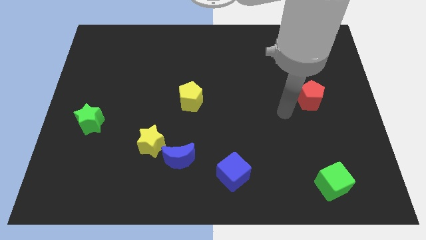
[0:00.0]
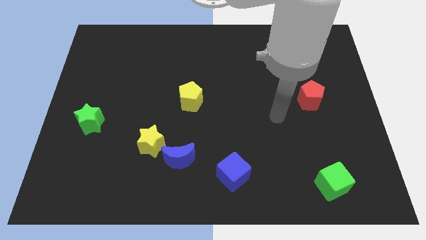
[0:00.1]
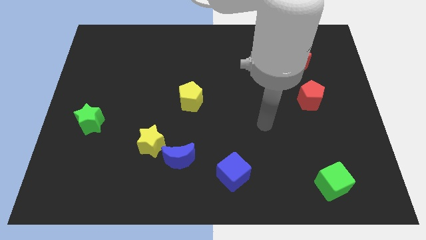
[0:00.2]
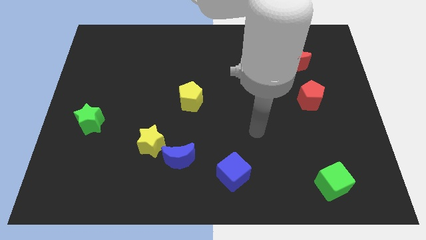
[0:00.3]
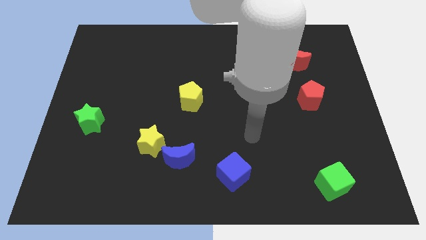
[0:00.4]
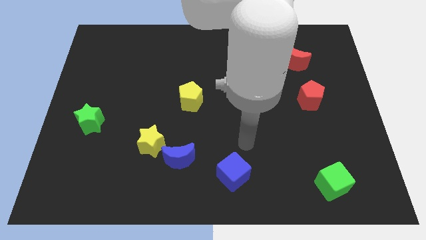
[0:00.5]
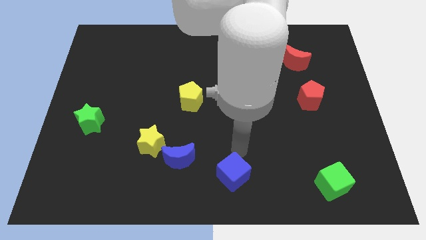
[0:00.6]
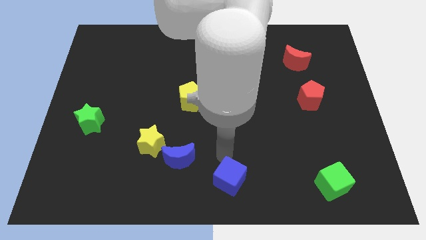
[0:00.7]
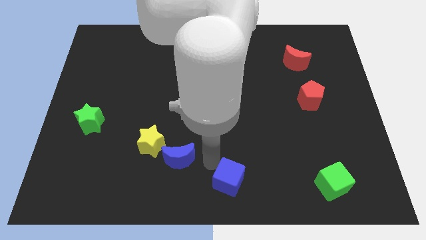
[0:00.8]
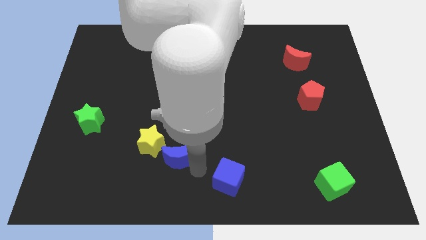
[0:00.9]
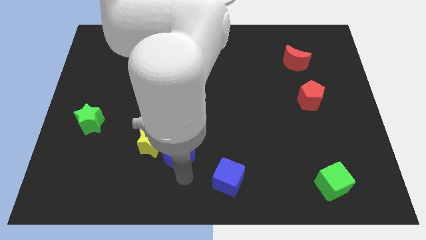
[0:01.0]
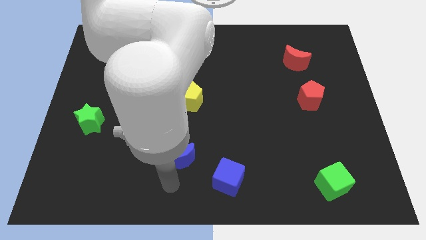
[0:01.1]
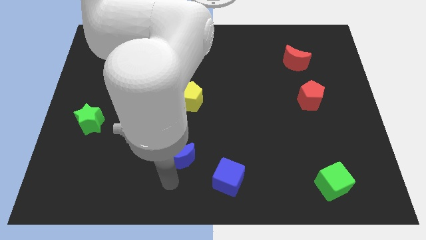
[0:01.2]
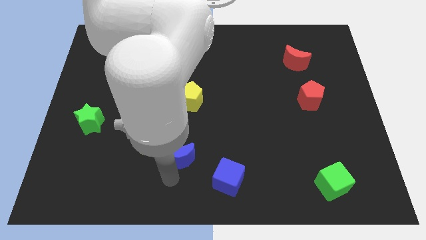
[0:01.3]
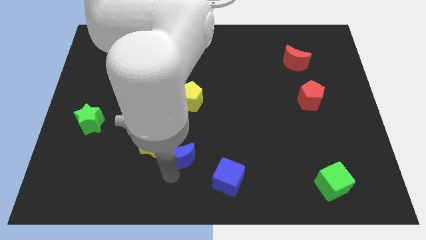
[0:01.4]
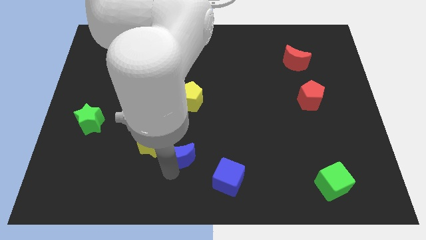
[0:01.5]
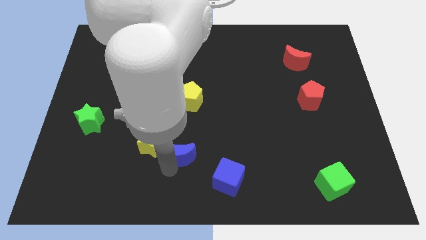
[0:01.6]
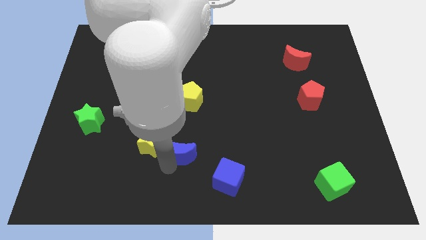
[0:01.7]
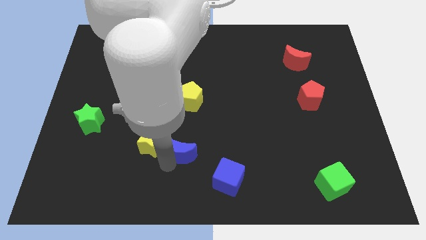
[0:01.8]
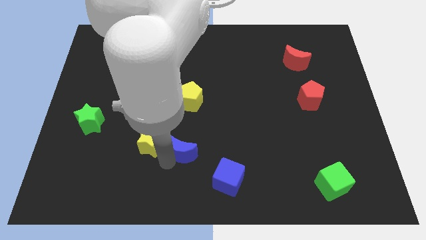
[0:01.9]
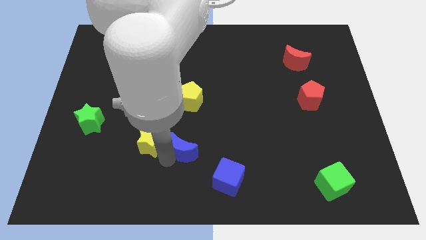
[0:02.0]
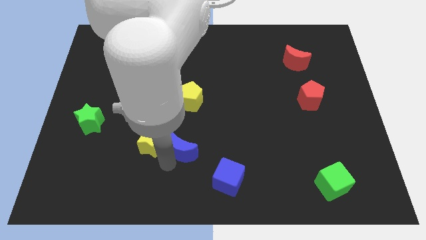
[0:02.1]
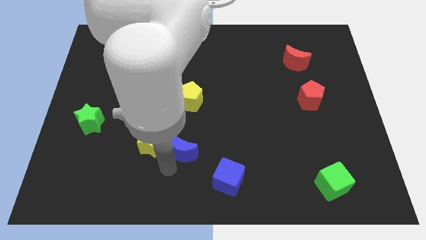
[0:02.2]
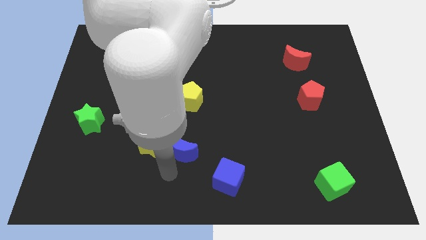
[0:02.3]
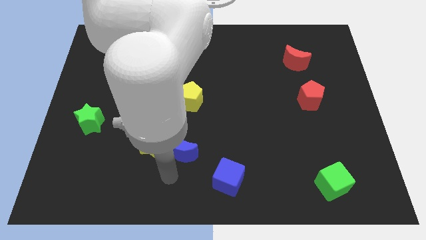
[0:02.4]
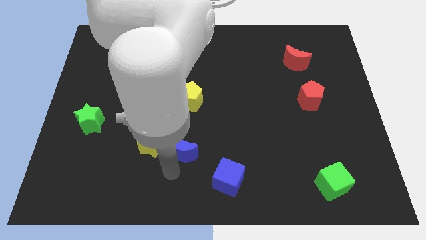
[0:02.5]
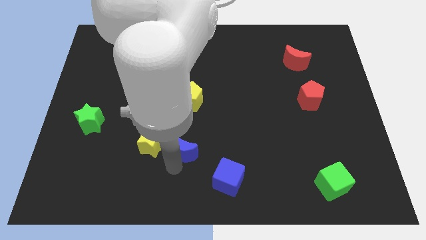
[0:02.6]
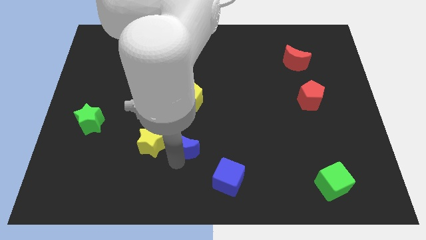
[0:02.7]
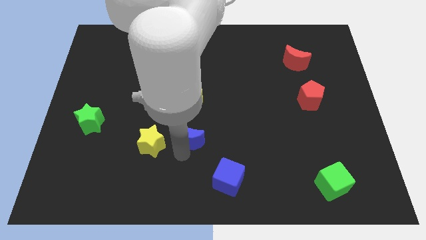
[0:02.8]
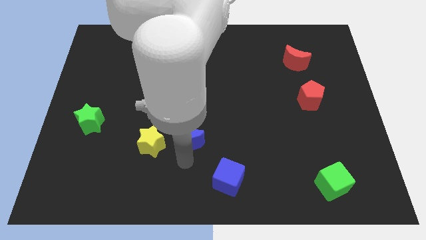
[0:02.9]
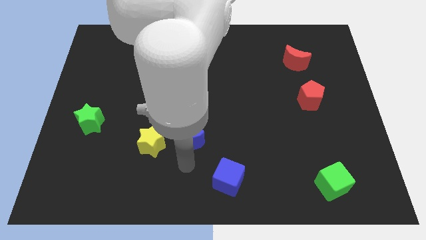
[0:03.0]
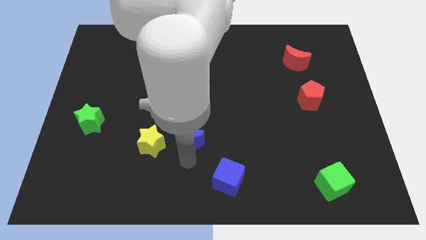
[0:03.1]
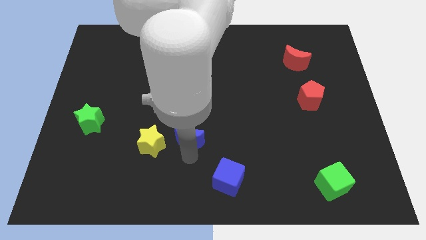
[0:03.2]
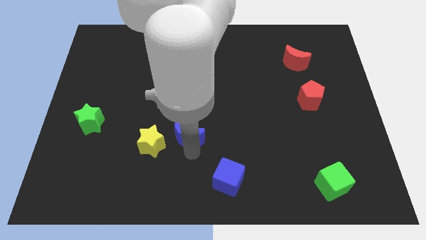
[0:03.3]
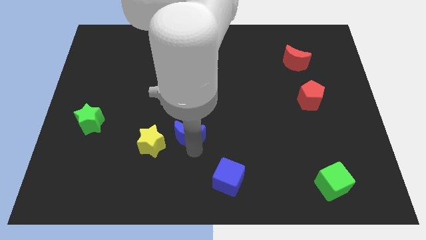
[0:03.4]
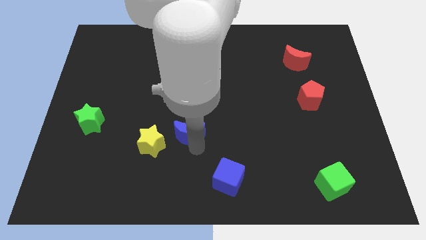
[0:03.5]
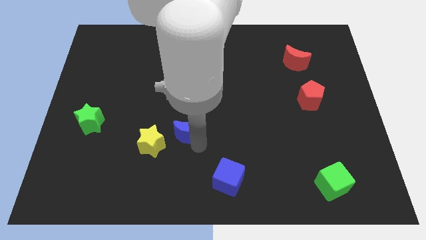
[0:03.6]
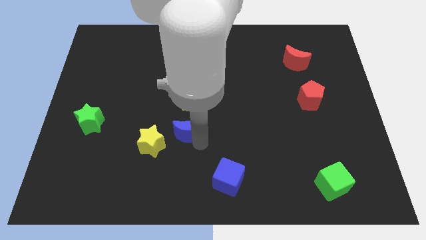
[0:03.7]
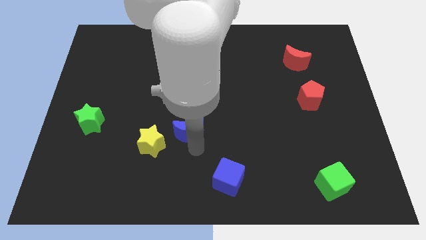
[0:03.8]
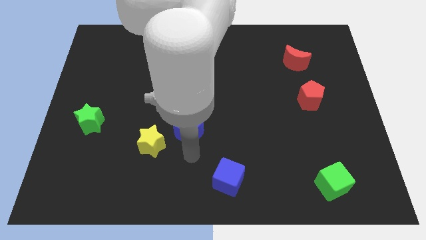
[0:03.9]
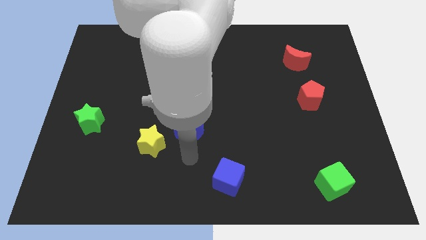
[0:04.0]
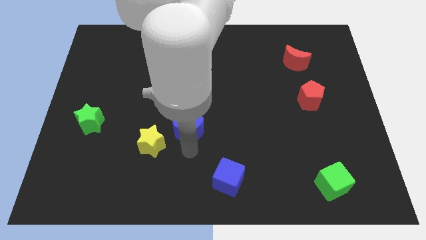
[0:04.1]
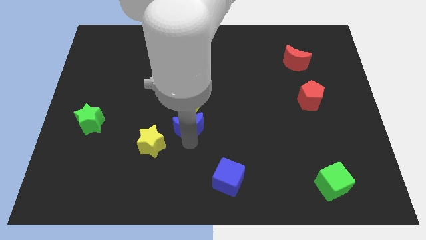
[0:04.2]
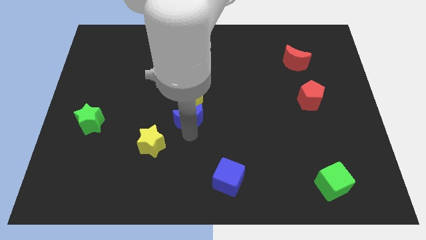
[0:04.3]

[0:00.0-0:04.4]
put the blue moon towards the yellow pentagon

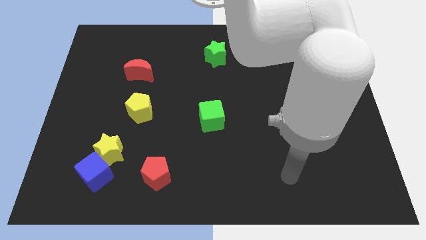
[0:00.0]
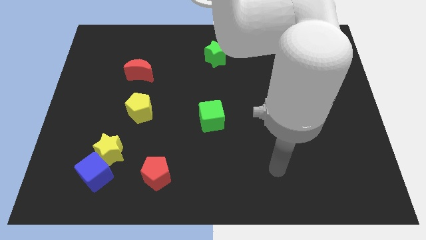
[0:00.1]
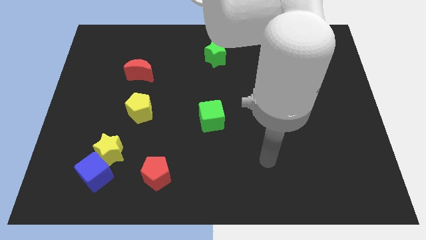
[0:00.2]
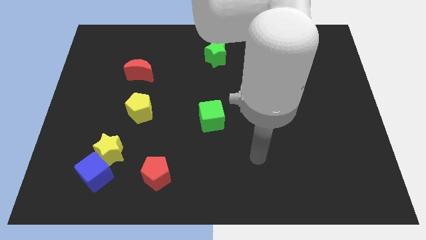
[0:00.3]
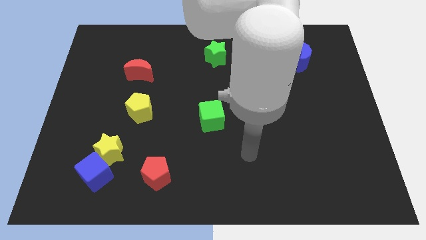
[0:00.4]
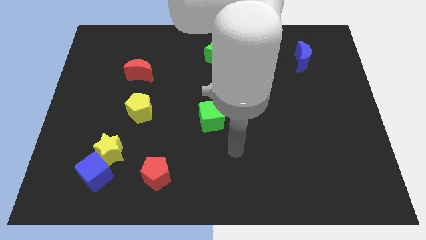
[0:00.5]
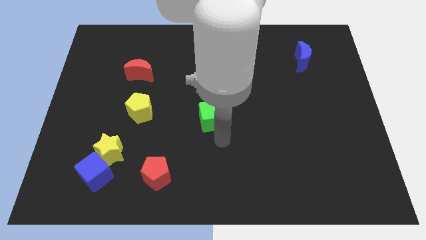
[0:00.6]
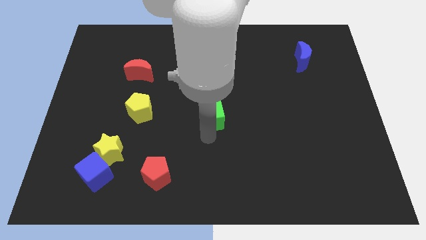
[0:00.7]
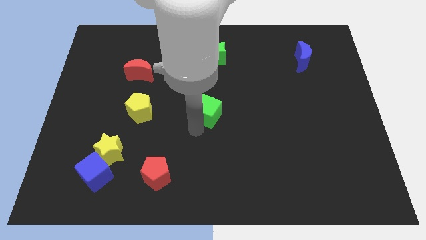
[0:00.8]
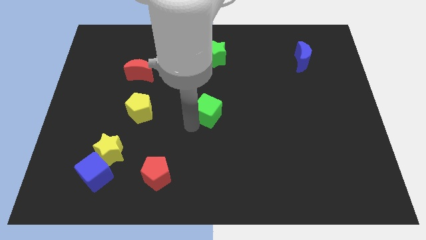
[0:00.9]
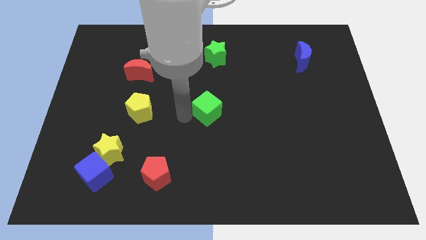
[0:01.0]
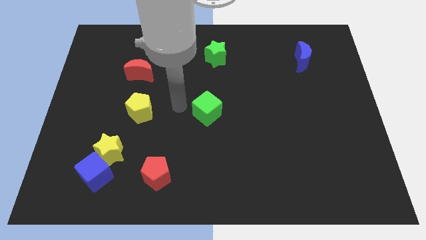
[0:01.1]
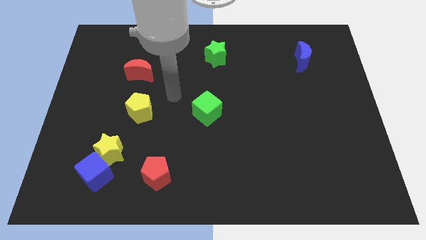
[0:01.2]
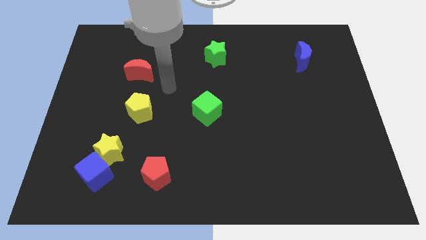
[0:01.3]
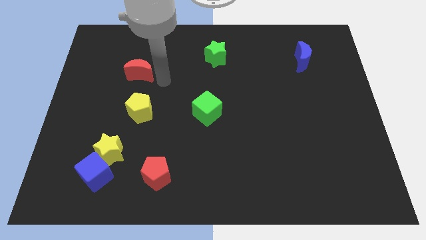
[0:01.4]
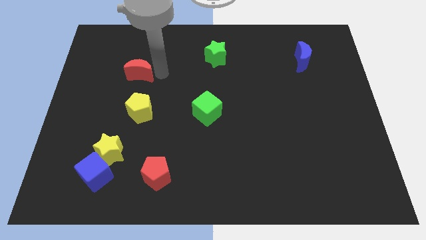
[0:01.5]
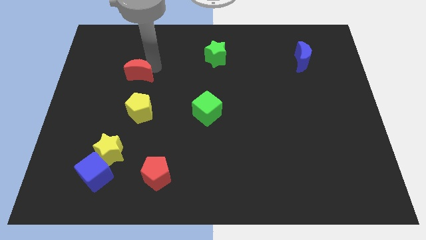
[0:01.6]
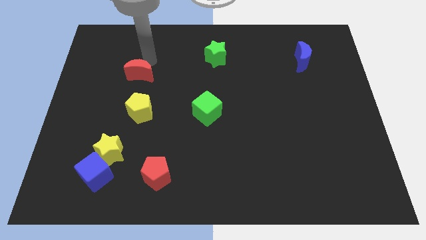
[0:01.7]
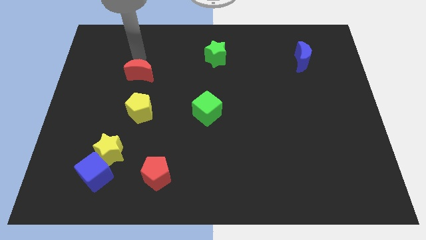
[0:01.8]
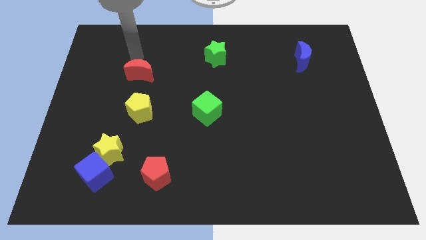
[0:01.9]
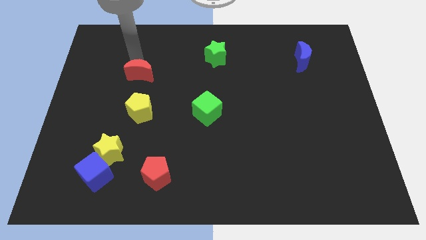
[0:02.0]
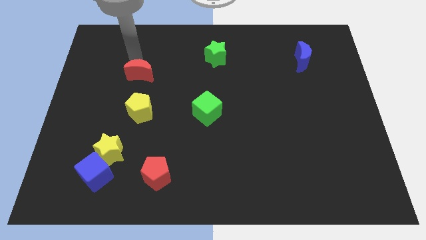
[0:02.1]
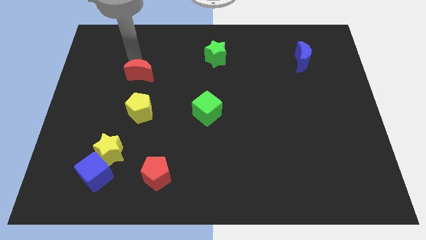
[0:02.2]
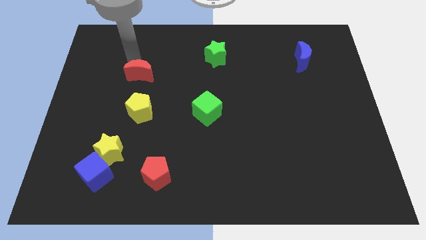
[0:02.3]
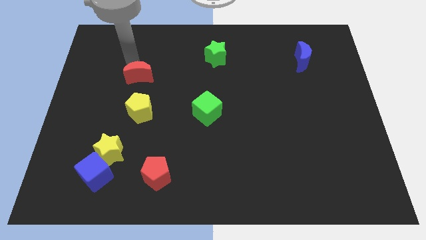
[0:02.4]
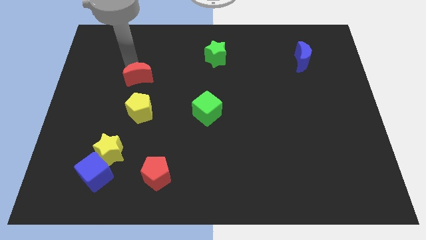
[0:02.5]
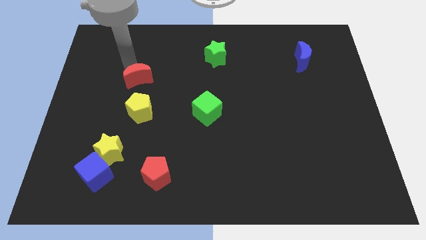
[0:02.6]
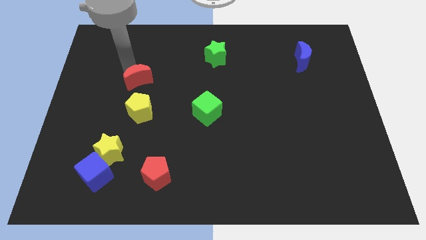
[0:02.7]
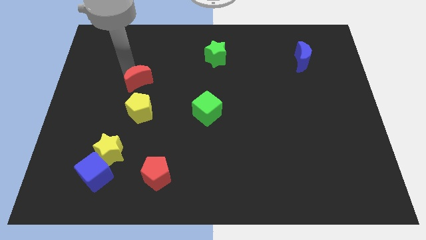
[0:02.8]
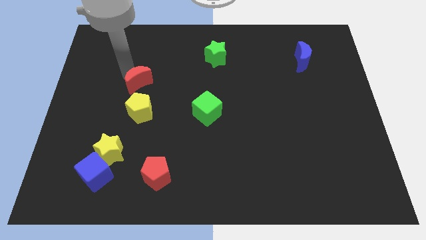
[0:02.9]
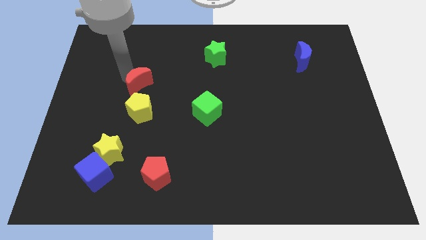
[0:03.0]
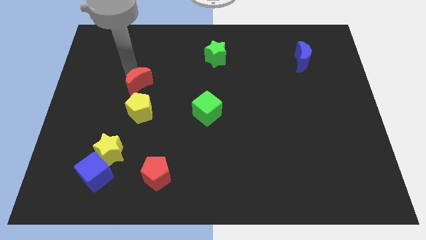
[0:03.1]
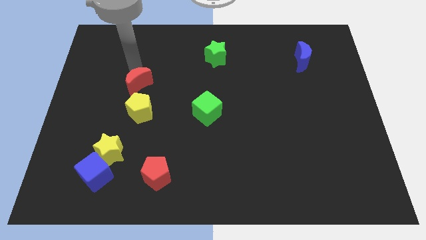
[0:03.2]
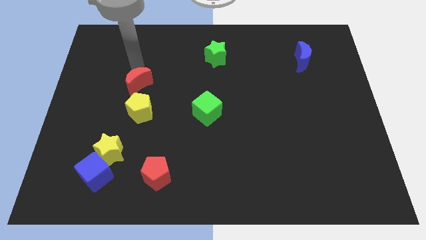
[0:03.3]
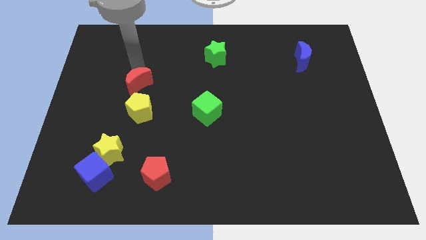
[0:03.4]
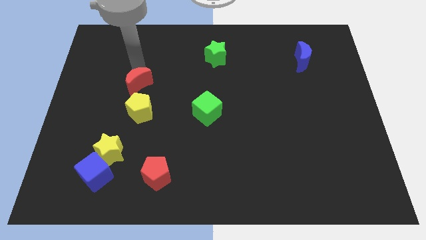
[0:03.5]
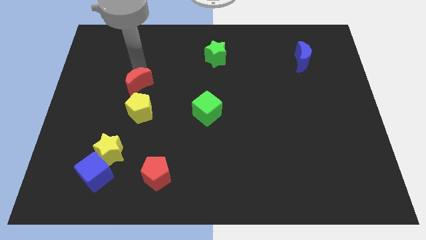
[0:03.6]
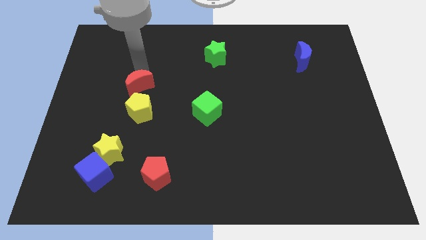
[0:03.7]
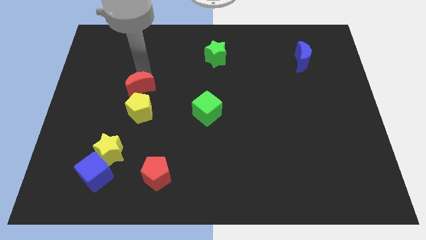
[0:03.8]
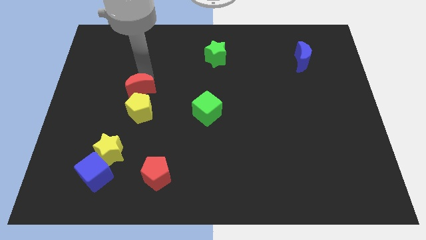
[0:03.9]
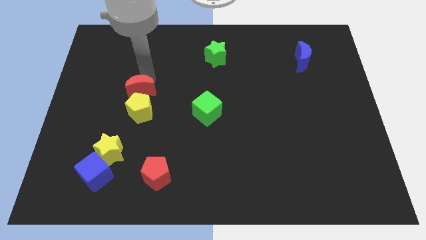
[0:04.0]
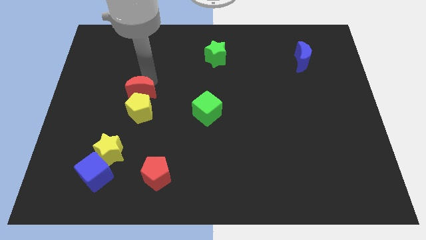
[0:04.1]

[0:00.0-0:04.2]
move the red moon close to the yellow pentagon
